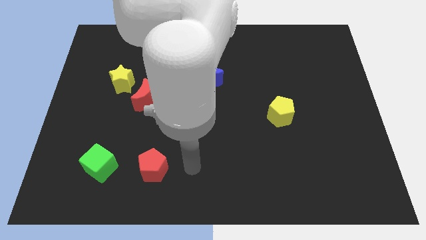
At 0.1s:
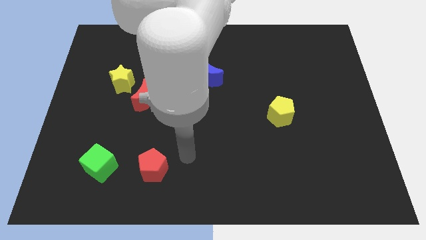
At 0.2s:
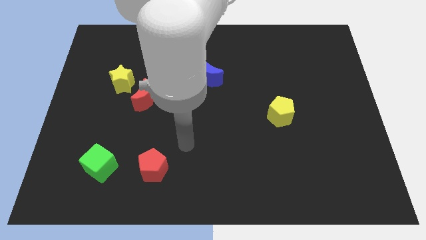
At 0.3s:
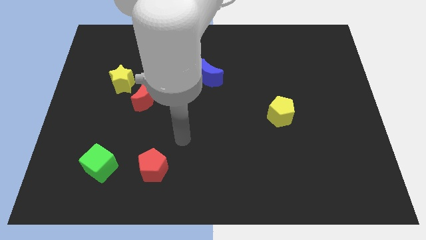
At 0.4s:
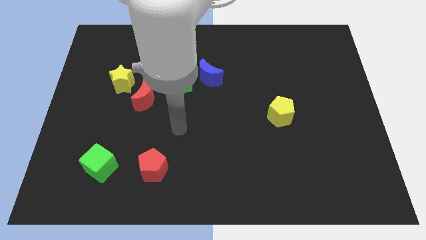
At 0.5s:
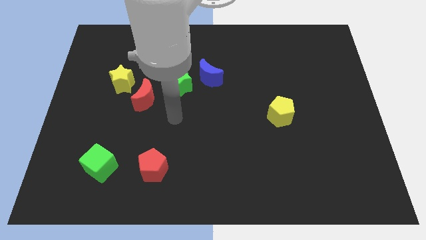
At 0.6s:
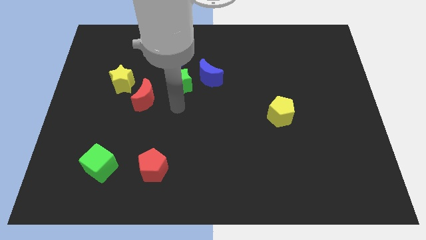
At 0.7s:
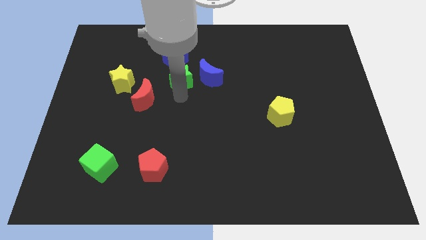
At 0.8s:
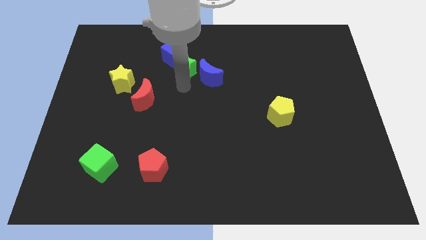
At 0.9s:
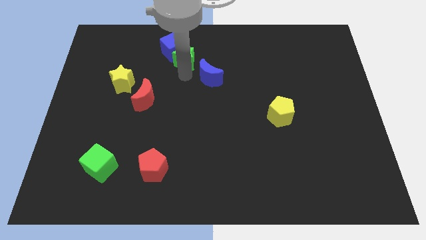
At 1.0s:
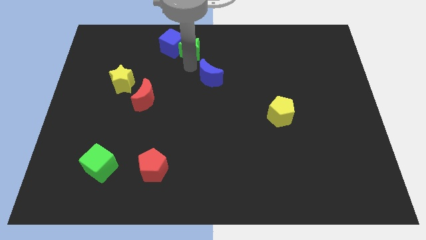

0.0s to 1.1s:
separate the blue moon from the green star

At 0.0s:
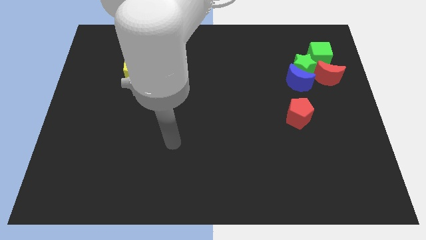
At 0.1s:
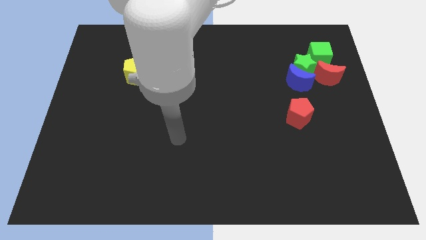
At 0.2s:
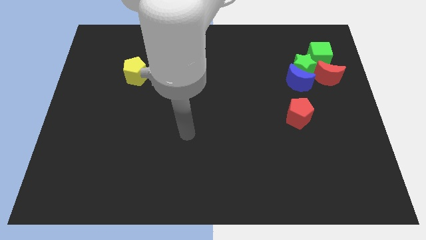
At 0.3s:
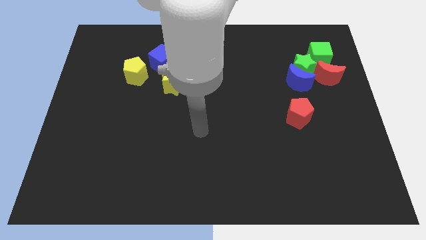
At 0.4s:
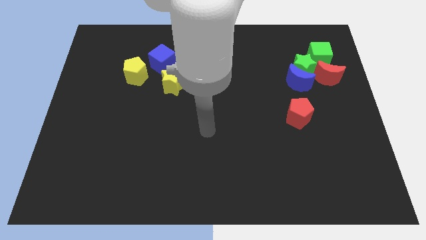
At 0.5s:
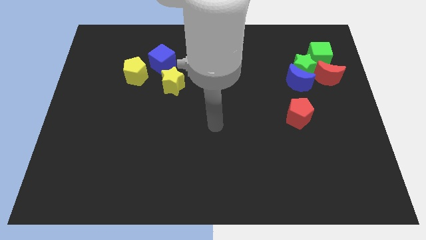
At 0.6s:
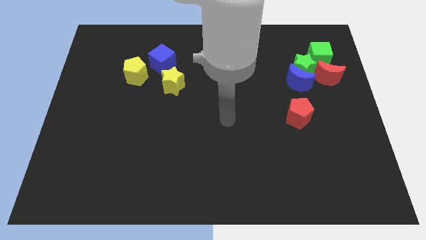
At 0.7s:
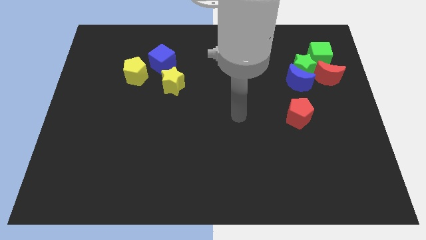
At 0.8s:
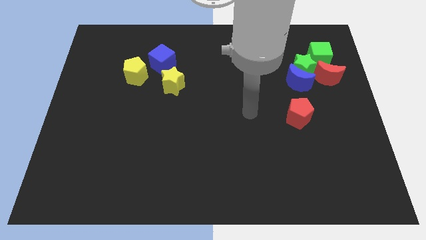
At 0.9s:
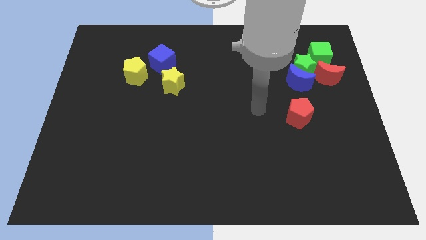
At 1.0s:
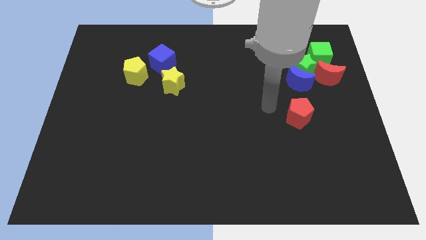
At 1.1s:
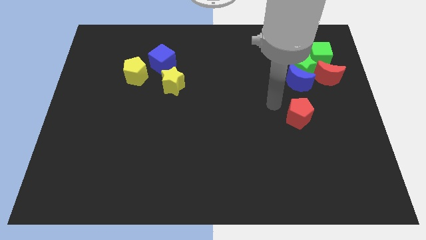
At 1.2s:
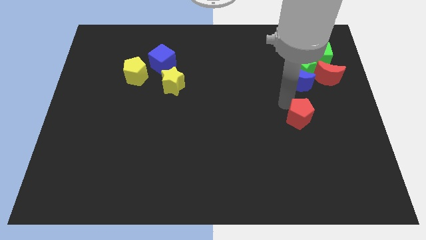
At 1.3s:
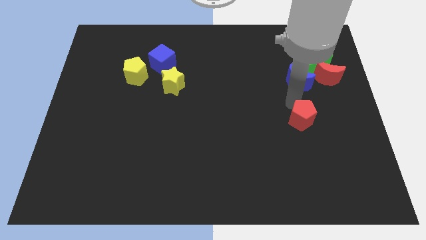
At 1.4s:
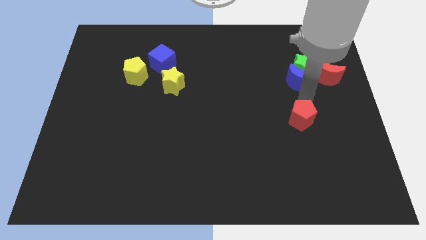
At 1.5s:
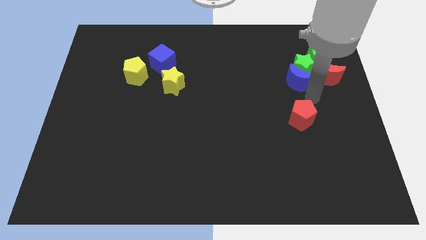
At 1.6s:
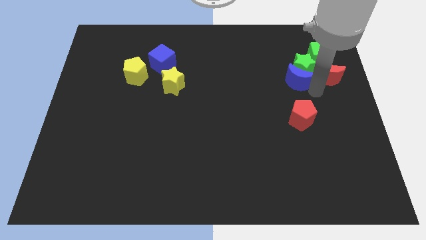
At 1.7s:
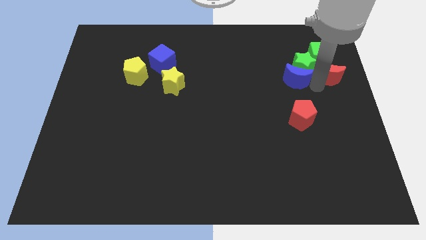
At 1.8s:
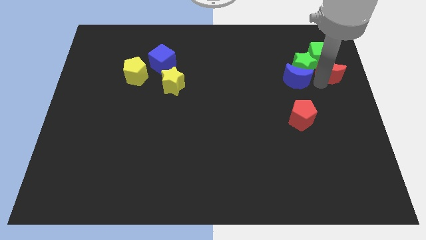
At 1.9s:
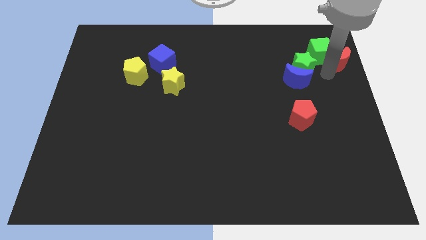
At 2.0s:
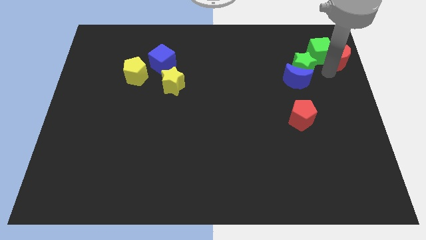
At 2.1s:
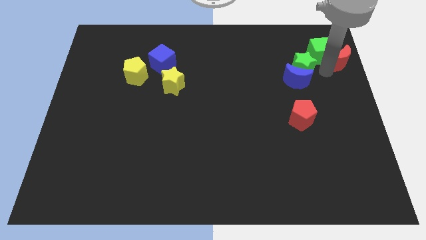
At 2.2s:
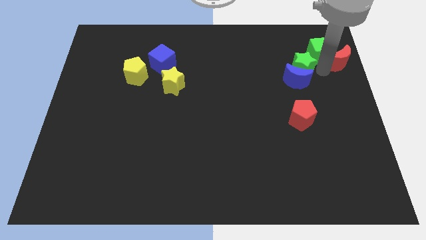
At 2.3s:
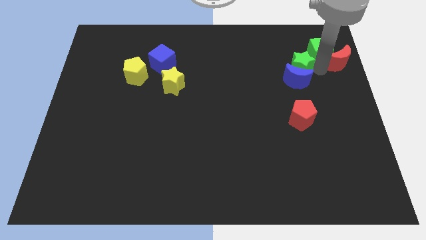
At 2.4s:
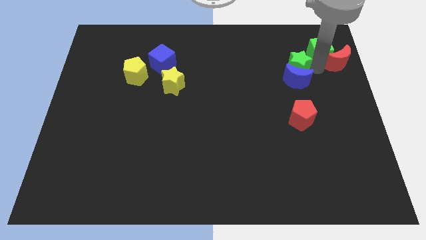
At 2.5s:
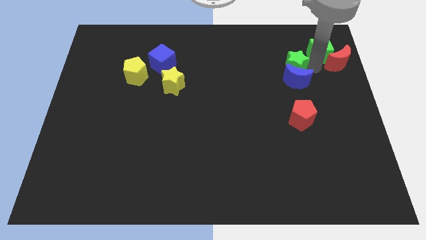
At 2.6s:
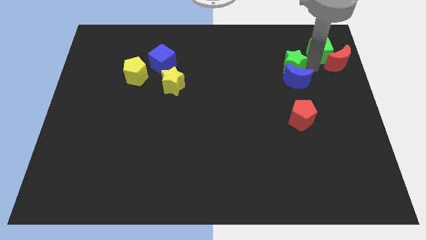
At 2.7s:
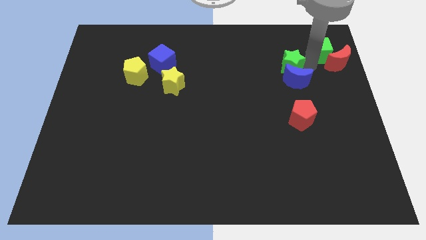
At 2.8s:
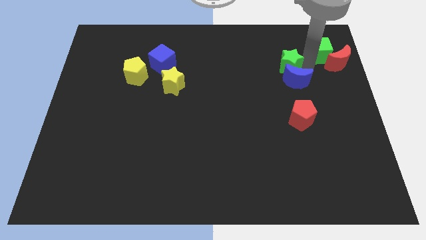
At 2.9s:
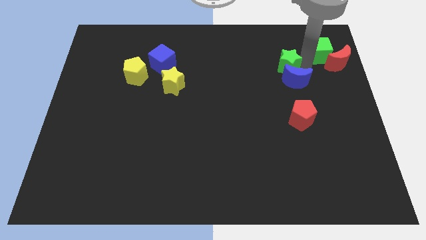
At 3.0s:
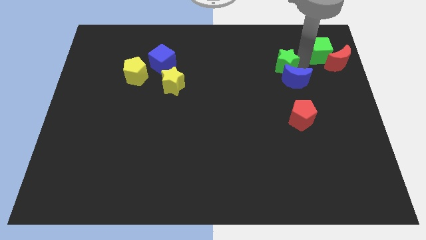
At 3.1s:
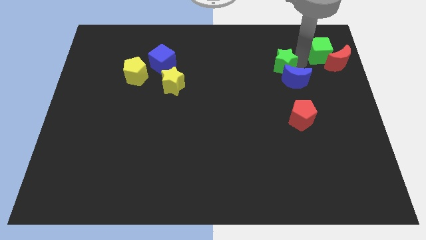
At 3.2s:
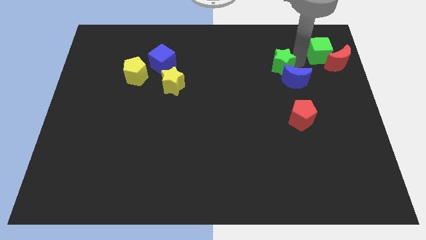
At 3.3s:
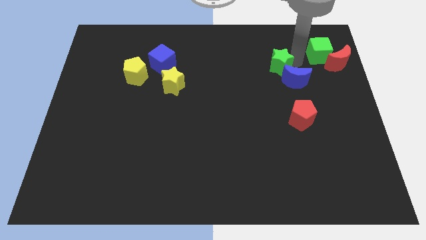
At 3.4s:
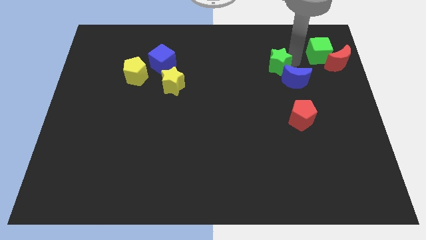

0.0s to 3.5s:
separate the green star from the group of blocks

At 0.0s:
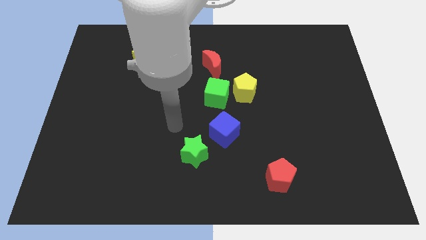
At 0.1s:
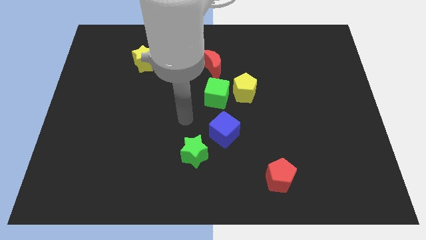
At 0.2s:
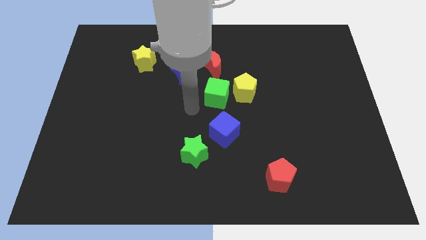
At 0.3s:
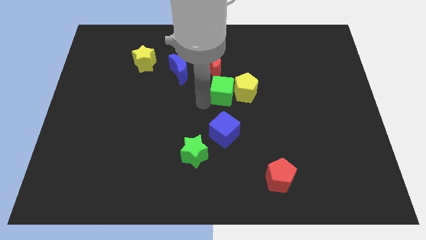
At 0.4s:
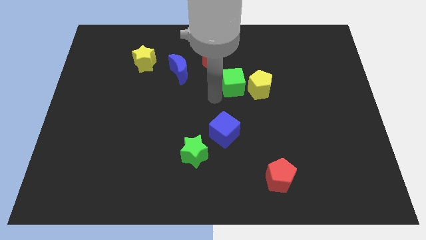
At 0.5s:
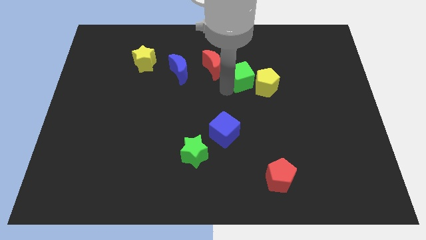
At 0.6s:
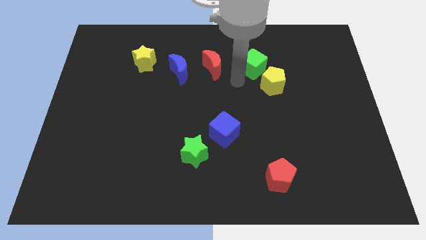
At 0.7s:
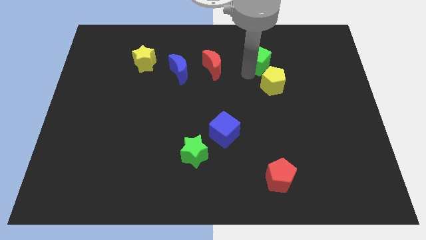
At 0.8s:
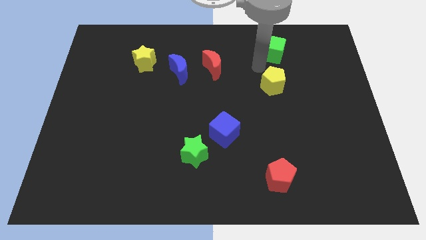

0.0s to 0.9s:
move the yellow pentagon away from the green cube

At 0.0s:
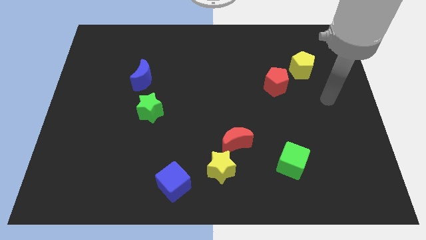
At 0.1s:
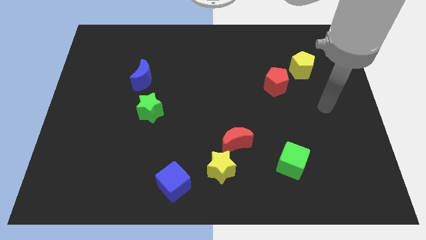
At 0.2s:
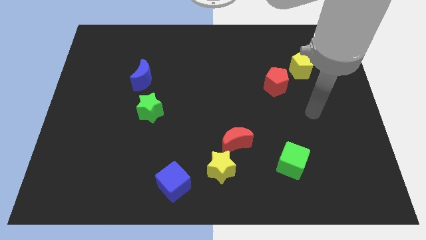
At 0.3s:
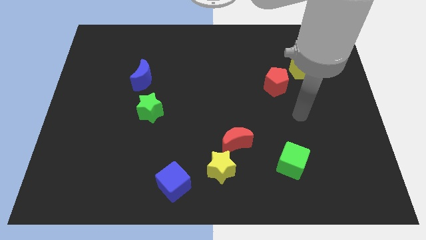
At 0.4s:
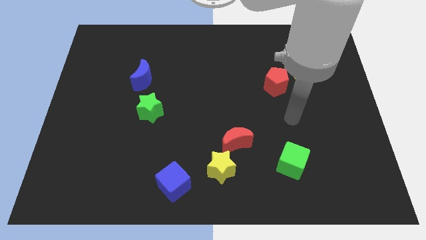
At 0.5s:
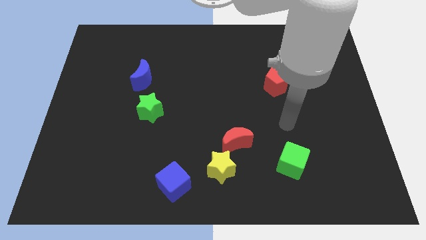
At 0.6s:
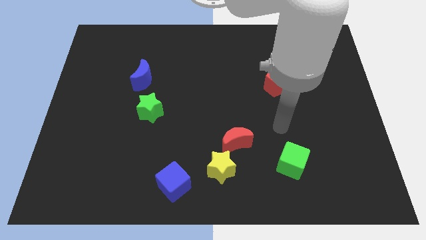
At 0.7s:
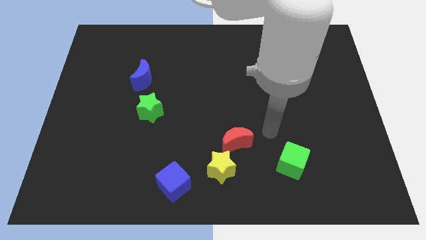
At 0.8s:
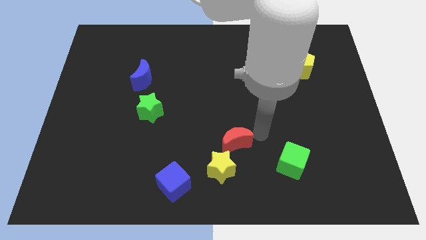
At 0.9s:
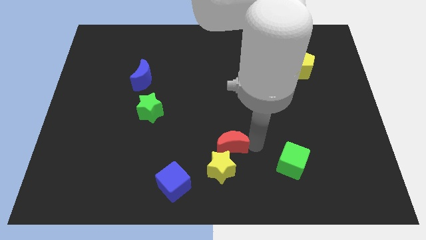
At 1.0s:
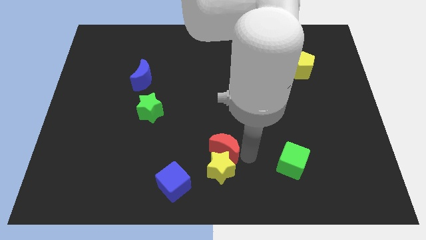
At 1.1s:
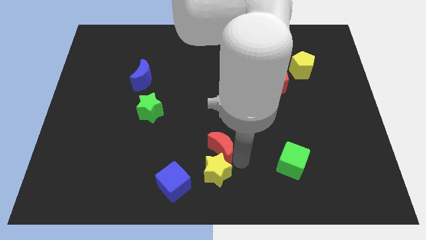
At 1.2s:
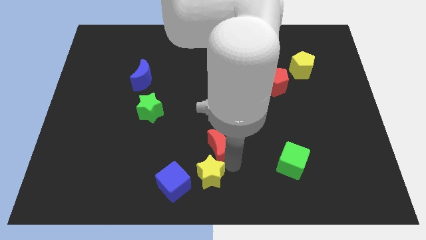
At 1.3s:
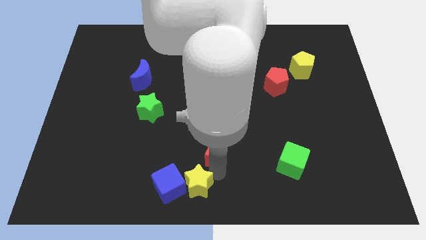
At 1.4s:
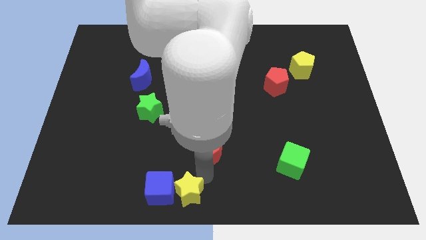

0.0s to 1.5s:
move the red moon away from the yellow star

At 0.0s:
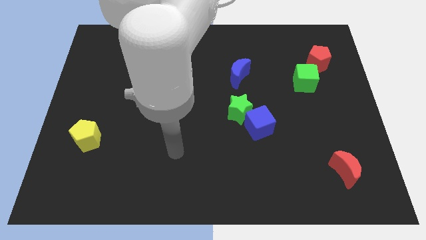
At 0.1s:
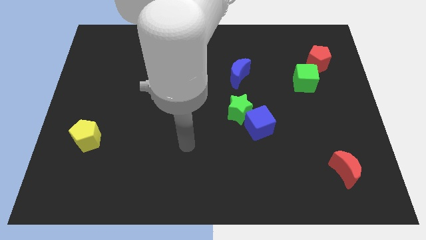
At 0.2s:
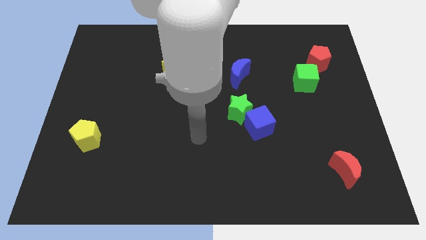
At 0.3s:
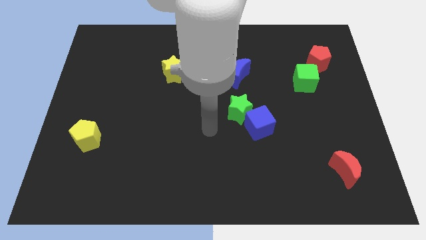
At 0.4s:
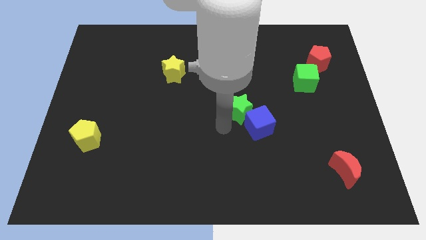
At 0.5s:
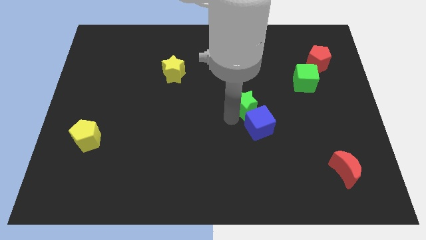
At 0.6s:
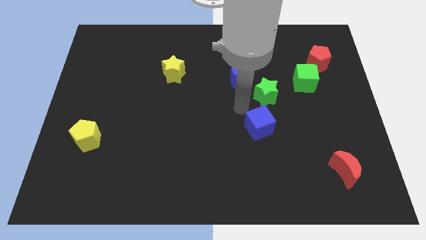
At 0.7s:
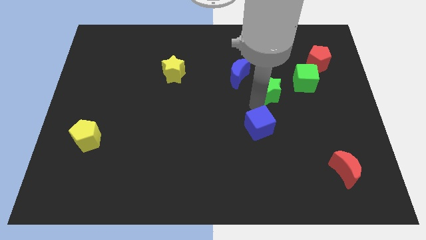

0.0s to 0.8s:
separate the blue cube from the green star

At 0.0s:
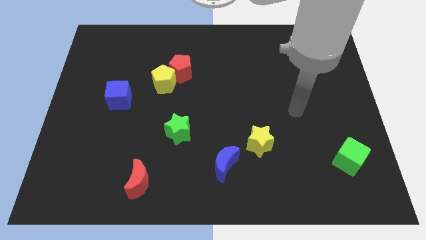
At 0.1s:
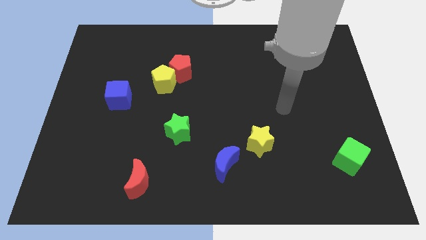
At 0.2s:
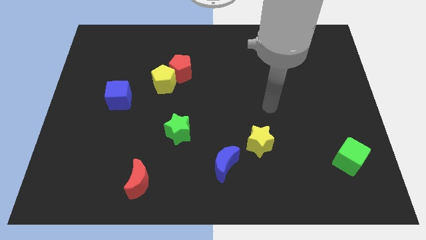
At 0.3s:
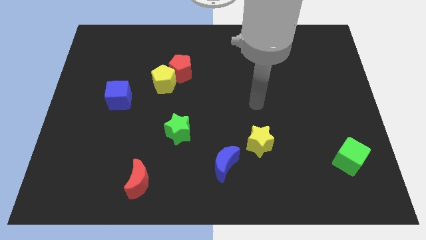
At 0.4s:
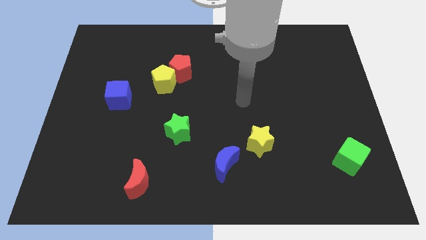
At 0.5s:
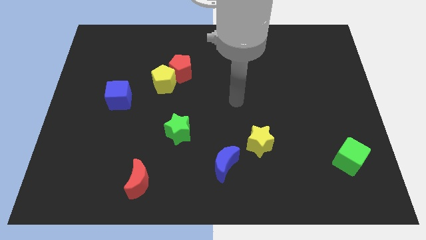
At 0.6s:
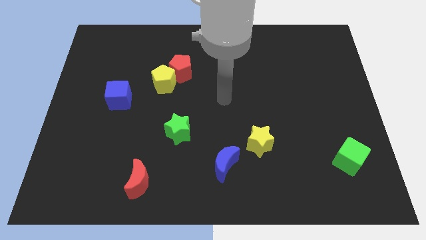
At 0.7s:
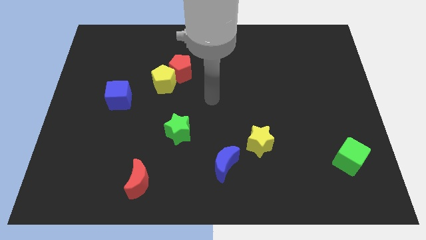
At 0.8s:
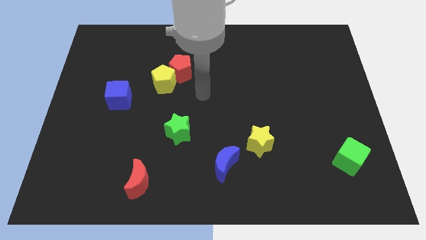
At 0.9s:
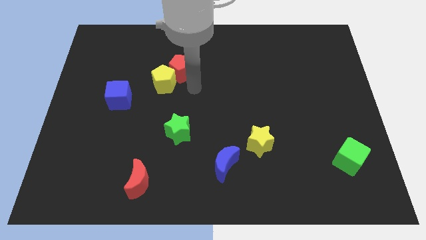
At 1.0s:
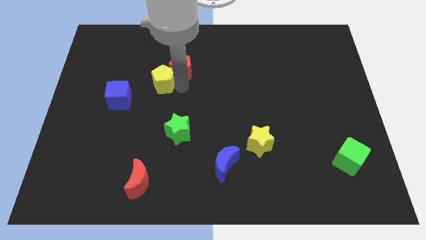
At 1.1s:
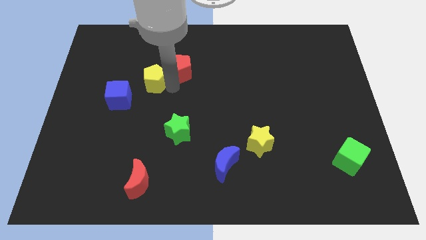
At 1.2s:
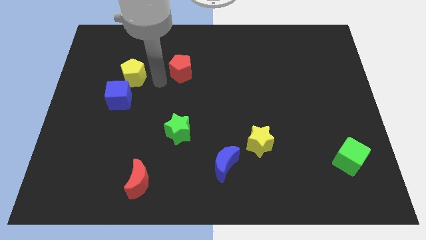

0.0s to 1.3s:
pull the red pentagon apart from the yellow pentagon

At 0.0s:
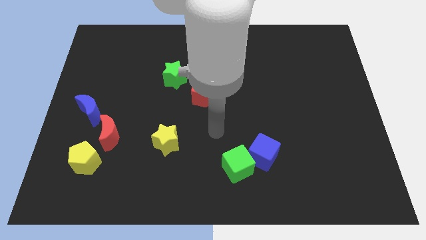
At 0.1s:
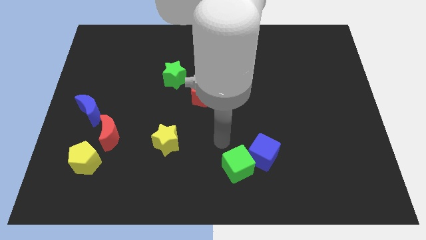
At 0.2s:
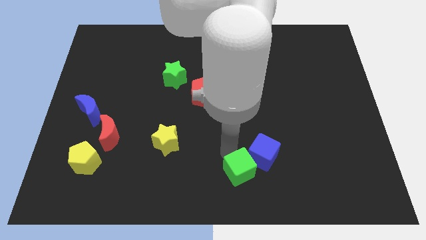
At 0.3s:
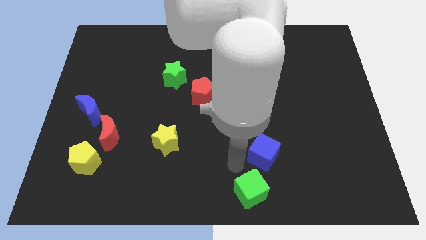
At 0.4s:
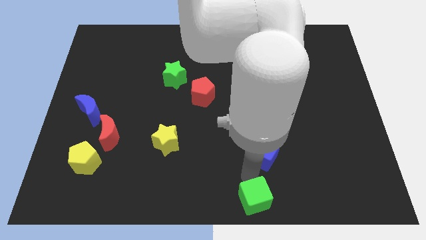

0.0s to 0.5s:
move the blue cube away from the green cube
